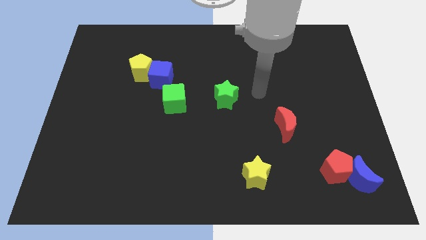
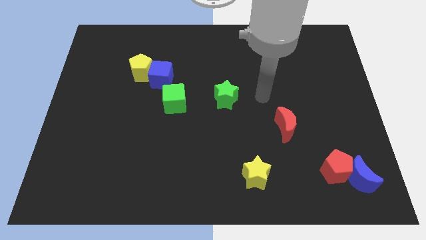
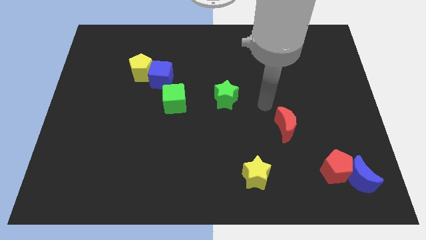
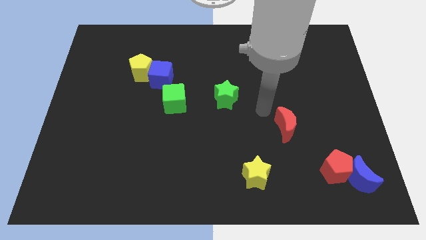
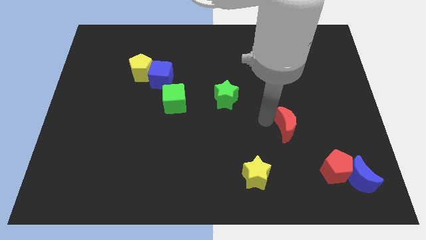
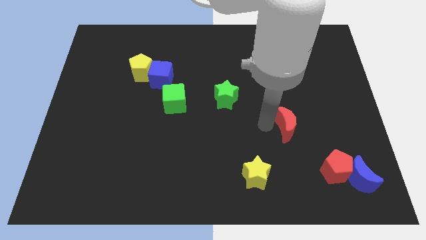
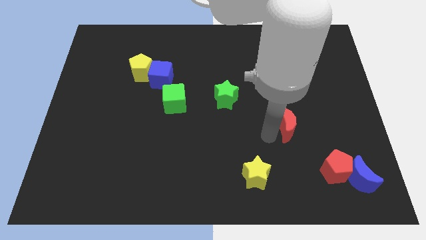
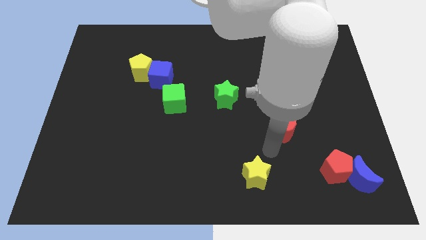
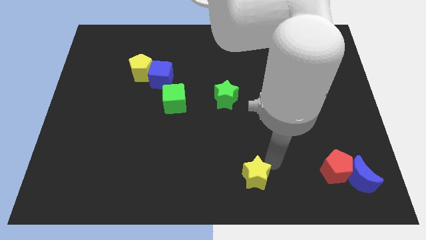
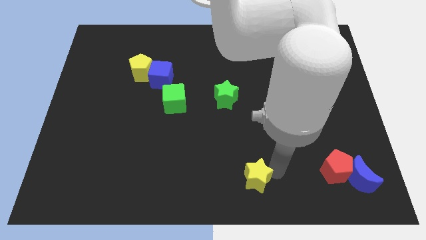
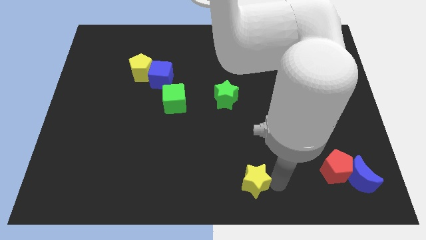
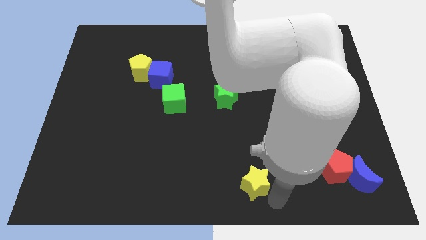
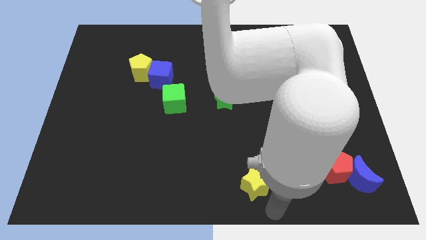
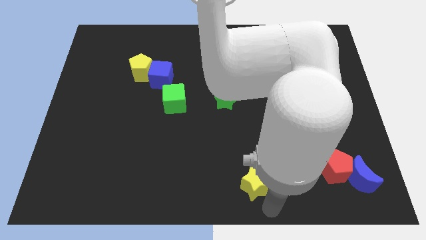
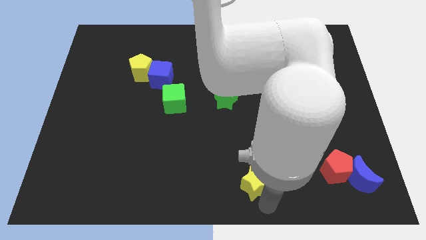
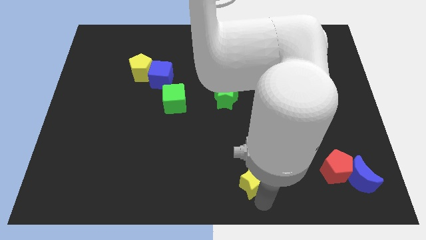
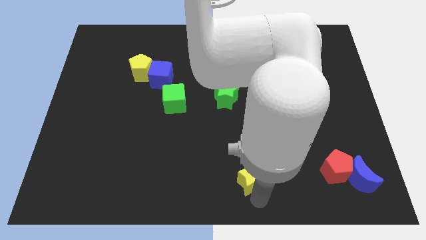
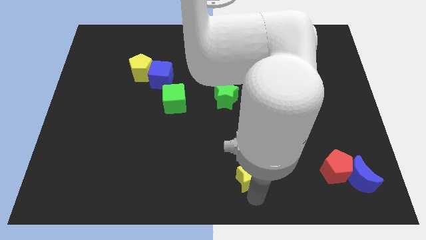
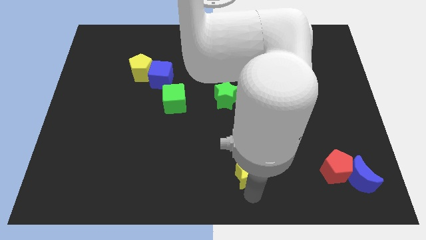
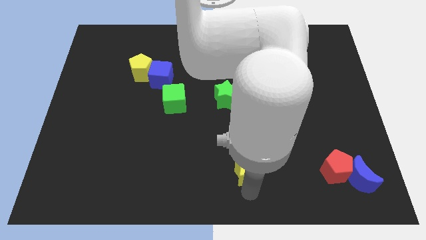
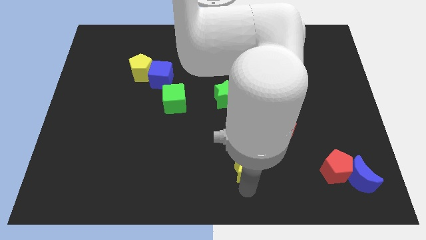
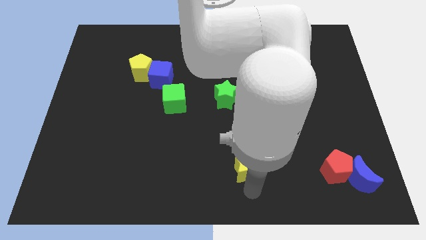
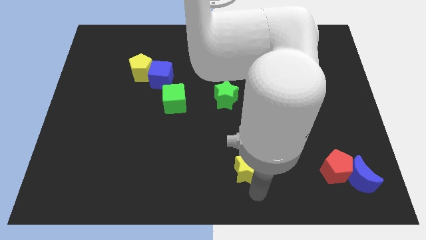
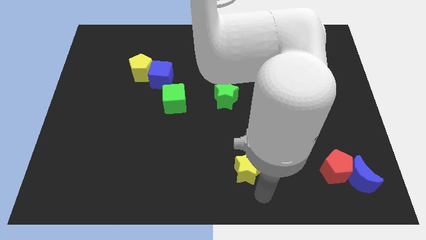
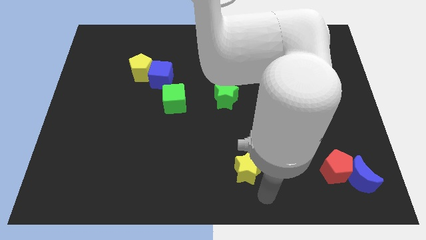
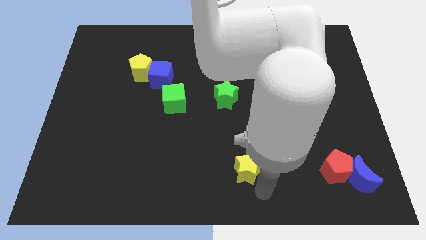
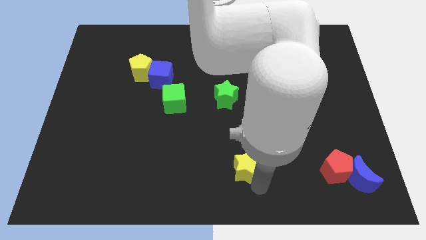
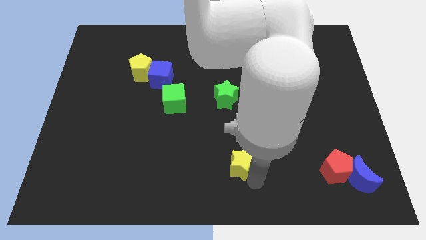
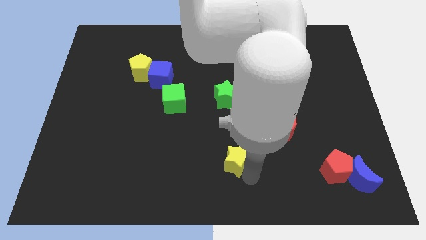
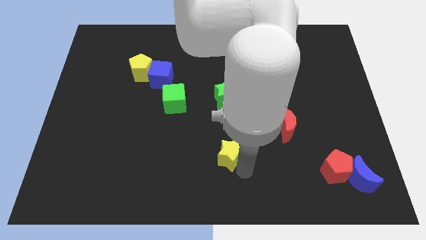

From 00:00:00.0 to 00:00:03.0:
push the yellow star a little up and then left

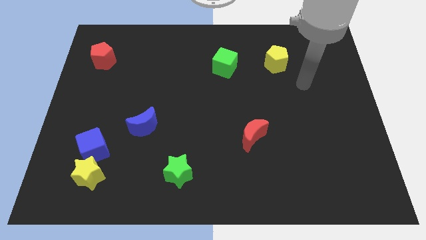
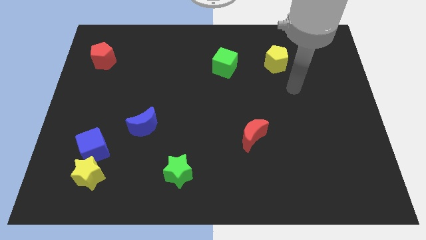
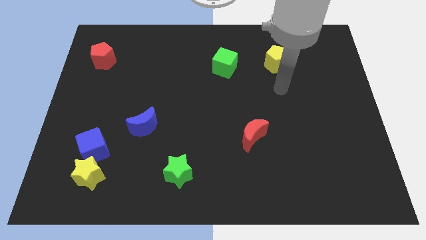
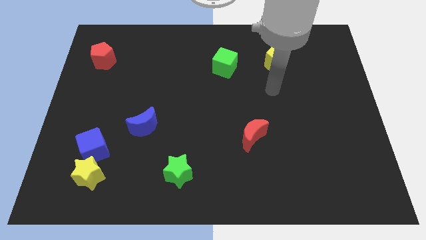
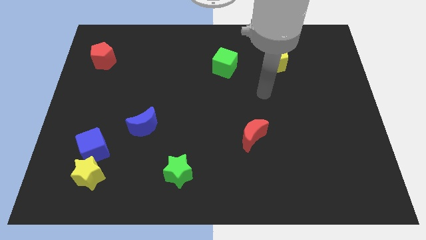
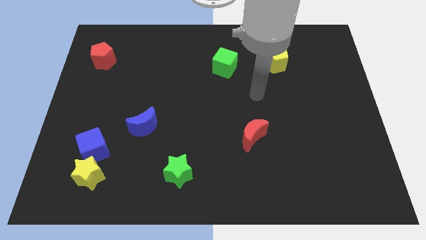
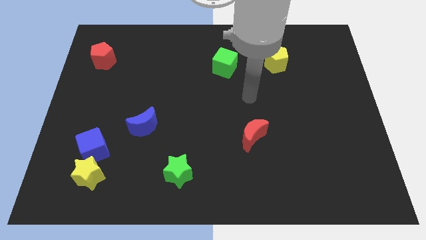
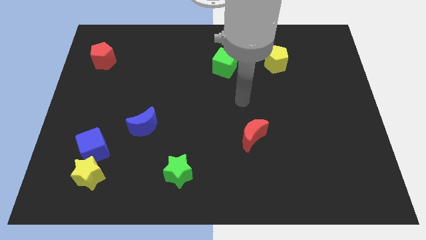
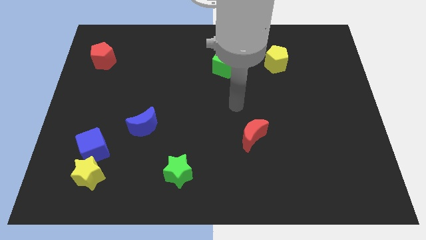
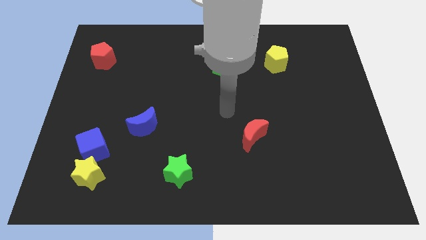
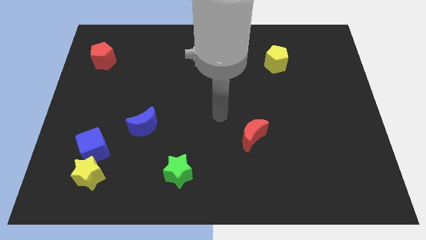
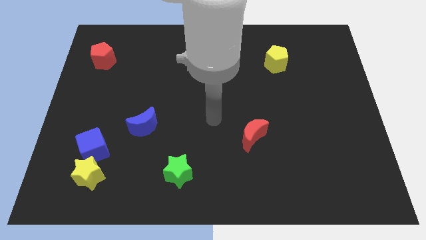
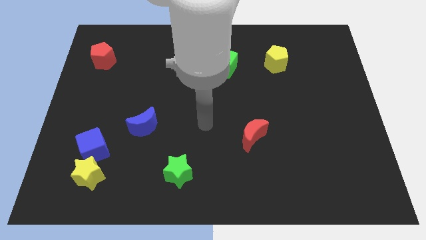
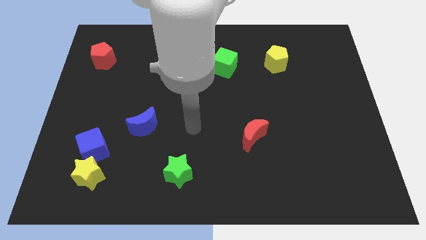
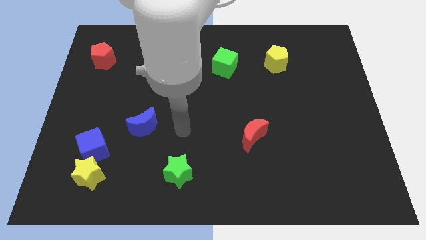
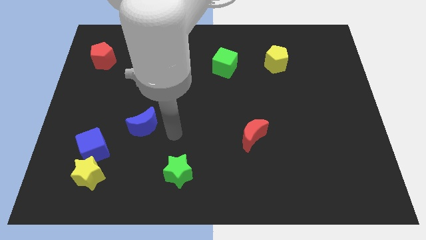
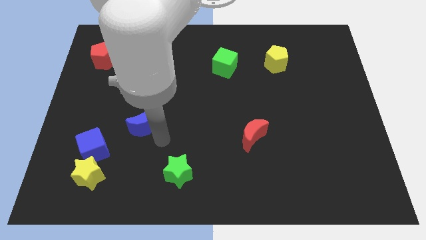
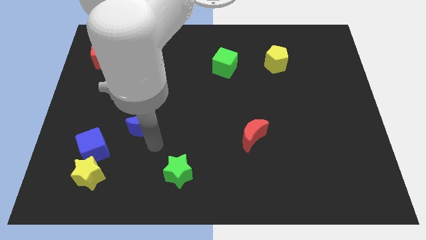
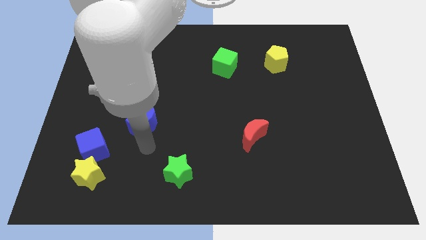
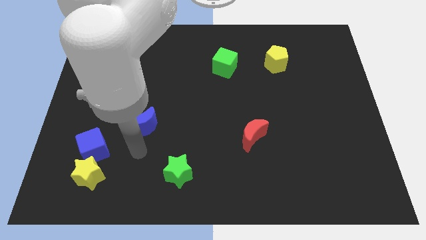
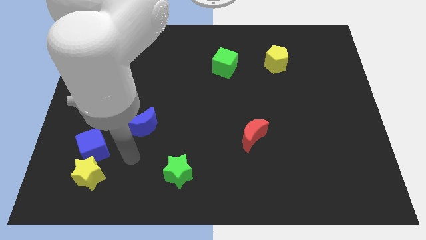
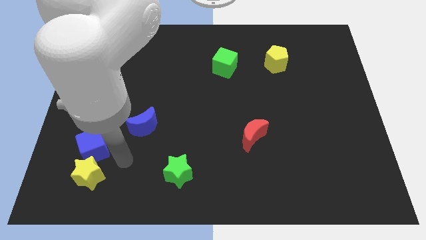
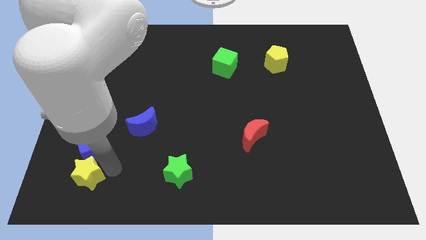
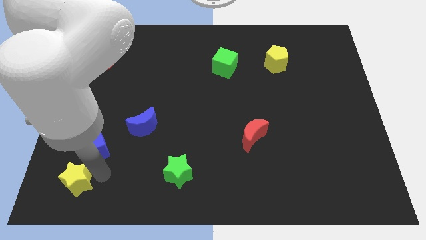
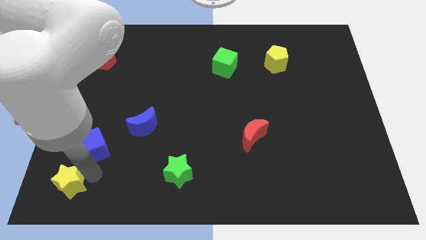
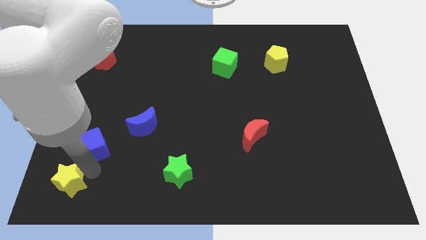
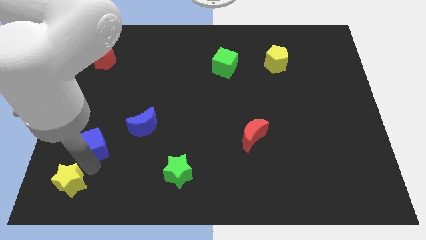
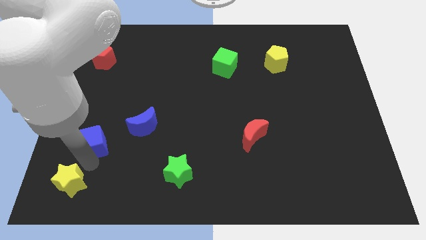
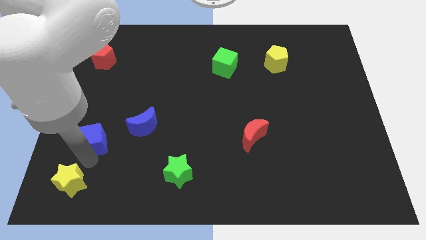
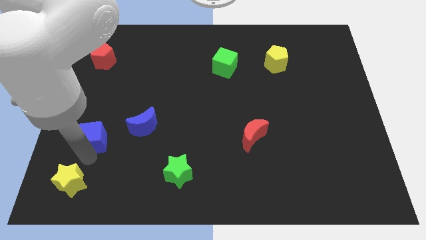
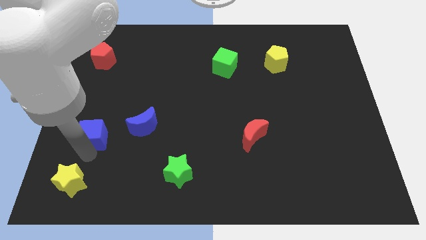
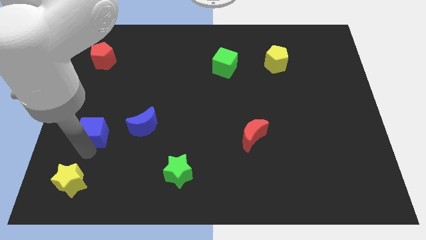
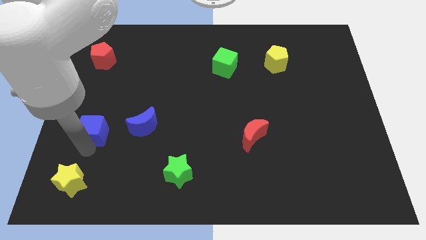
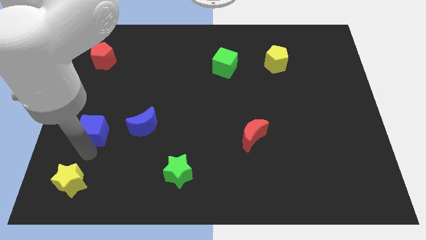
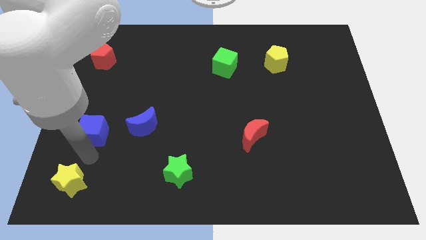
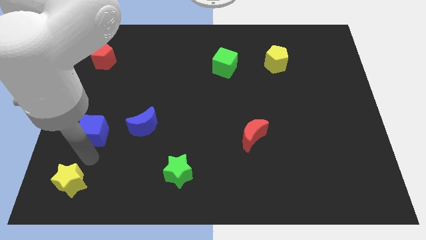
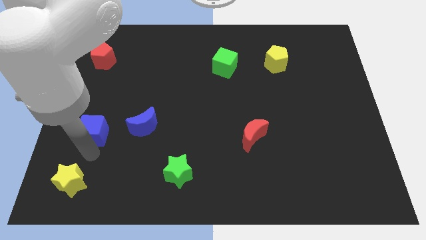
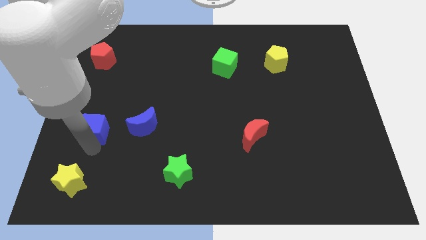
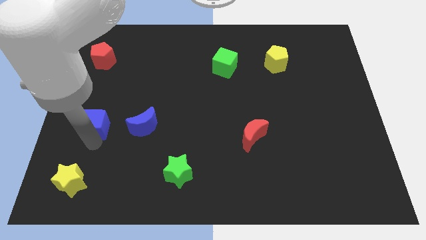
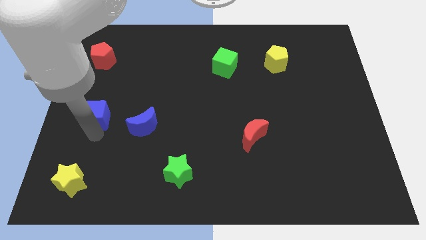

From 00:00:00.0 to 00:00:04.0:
slide the blue cube up somewhat

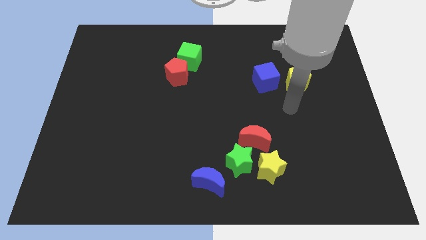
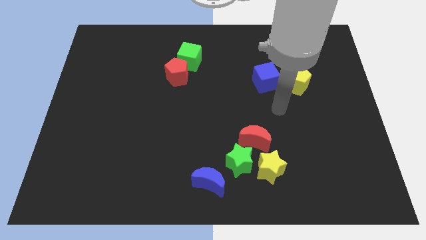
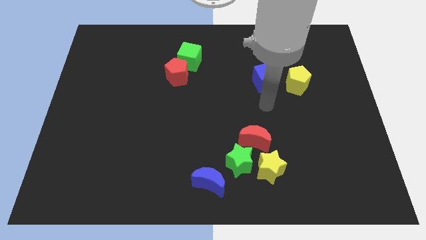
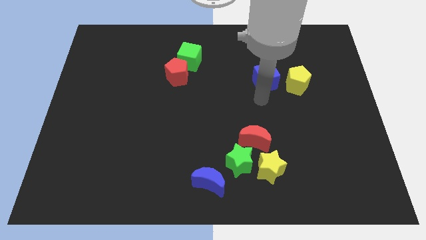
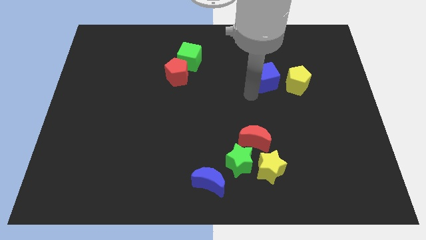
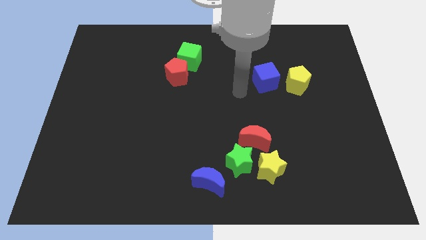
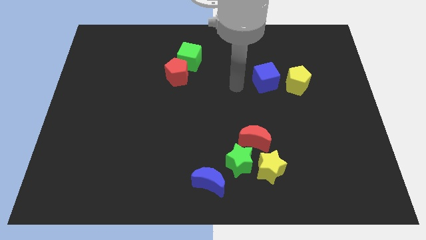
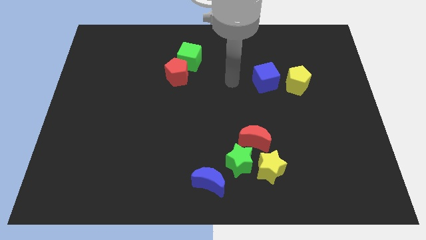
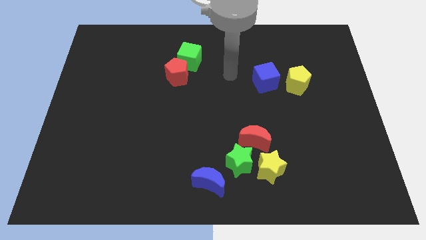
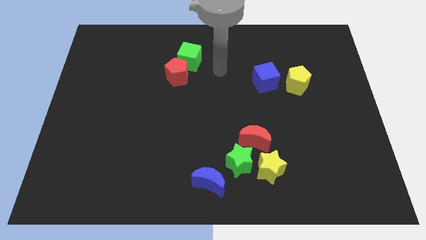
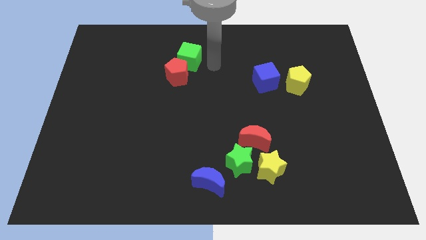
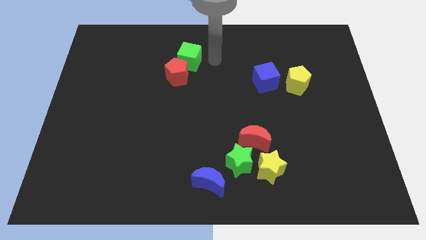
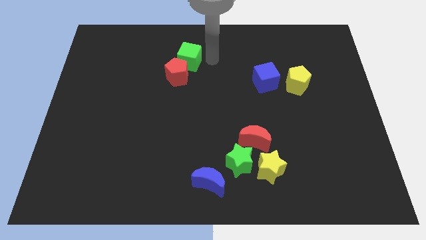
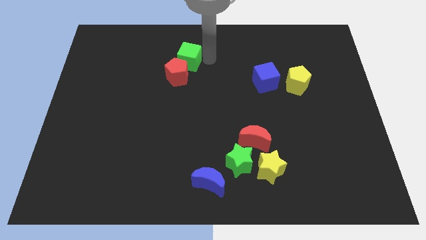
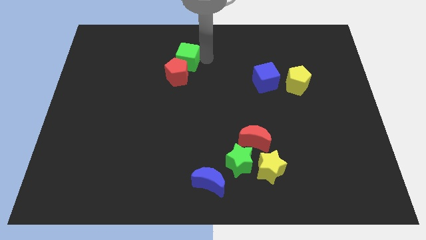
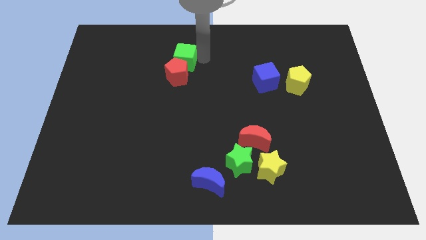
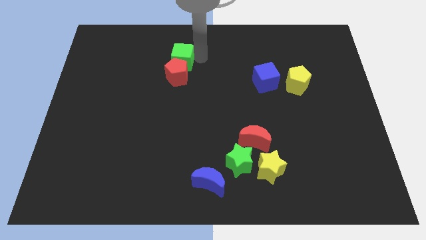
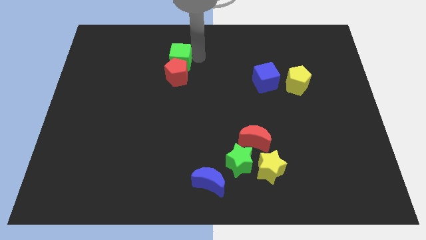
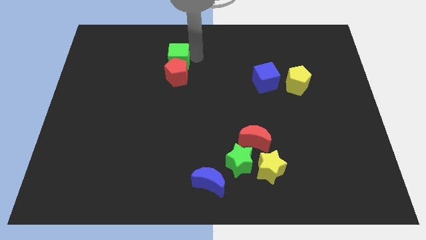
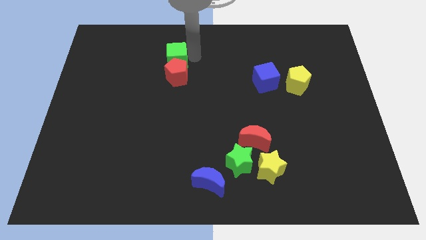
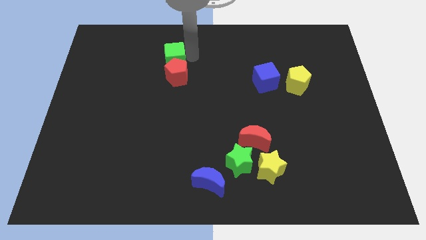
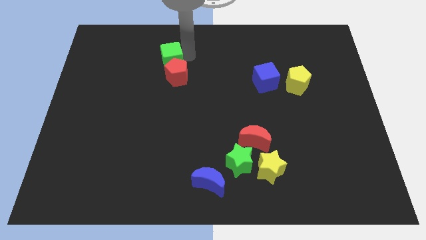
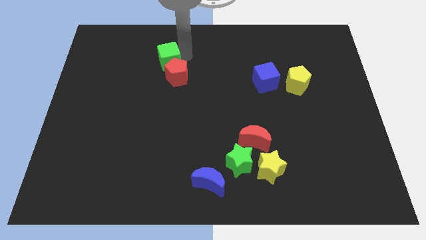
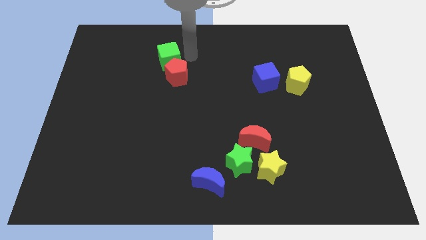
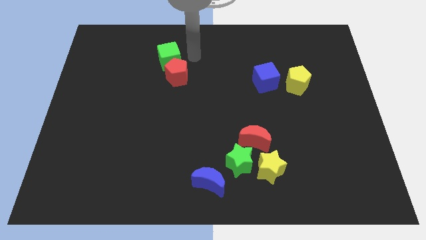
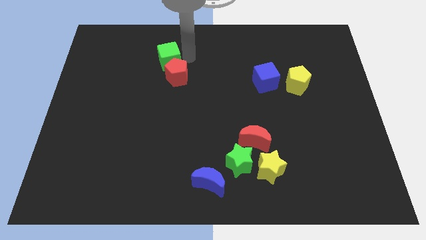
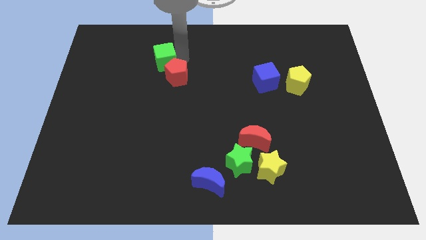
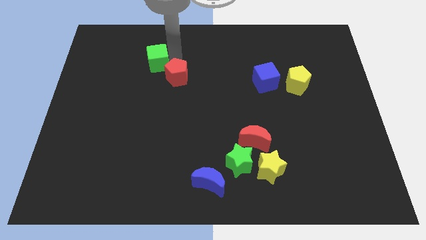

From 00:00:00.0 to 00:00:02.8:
slide the green cube left a little bit
